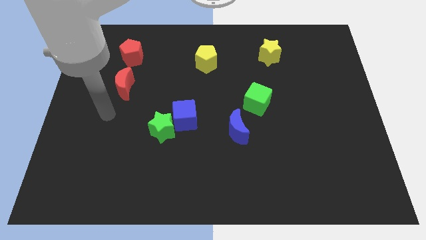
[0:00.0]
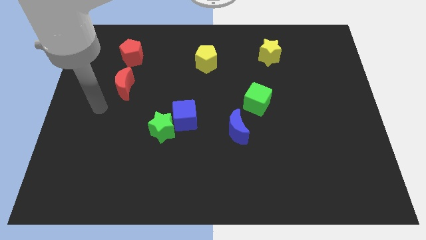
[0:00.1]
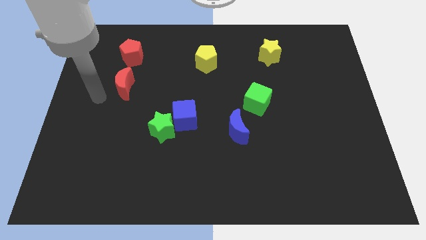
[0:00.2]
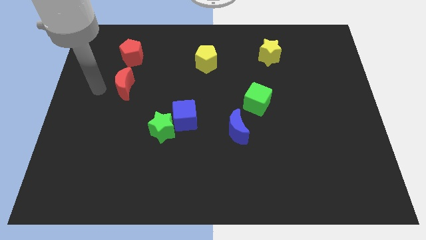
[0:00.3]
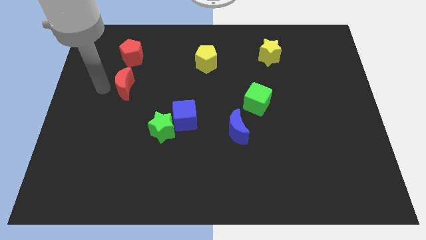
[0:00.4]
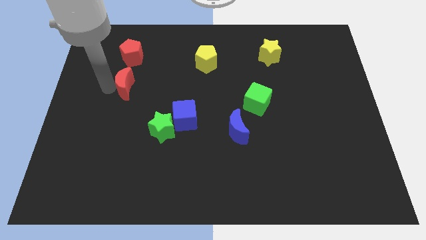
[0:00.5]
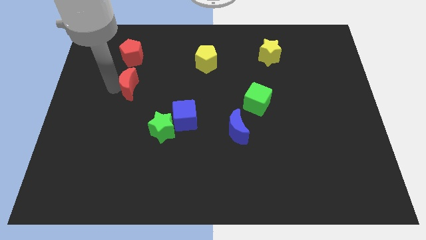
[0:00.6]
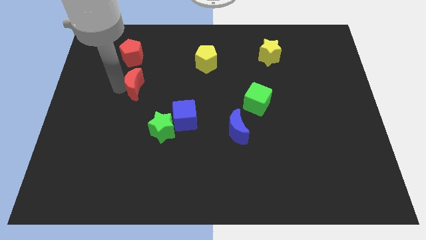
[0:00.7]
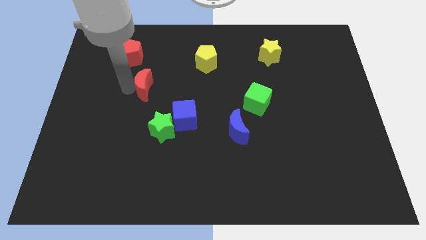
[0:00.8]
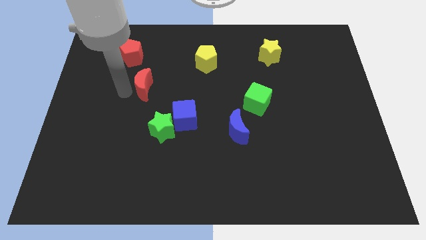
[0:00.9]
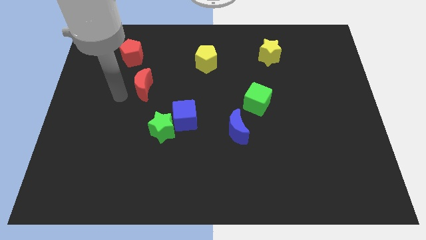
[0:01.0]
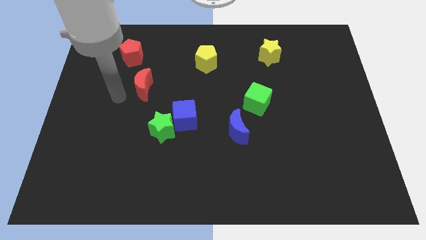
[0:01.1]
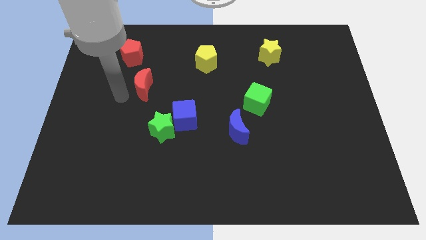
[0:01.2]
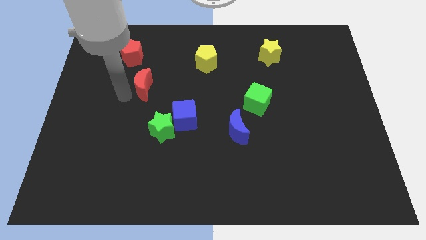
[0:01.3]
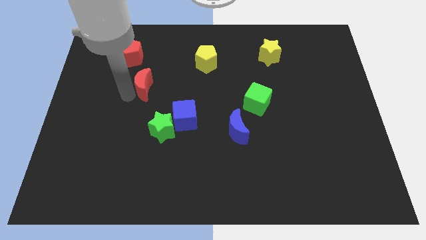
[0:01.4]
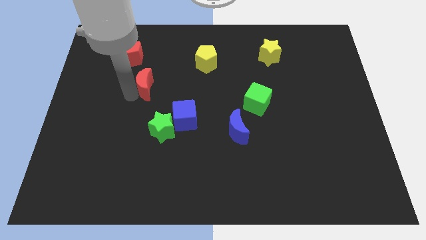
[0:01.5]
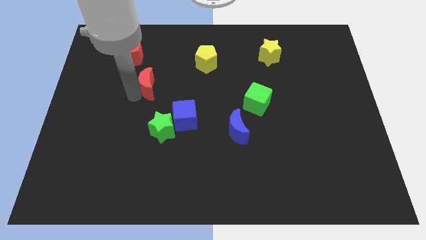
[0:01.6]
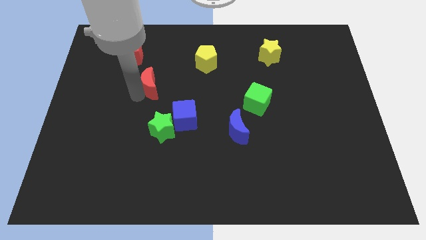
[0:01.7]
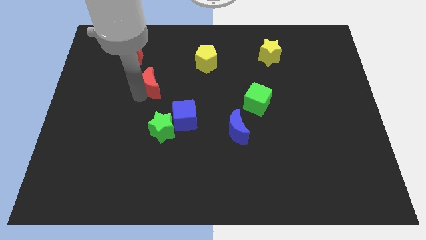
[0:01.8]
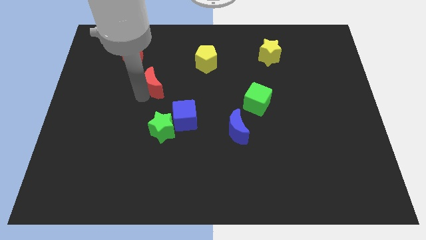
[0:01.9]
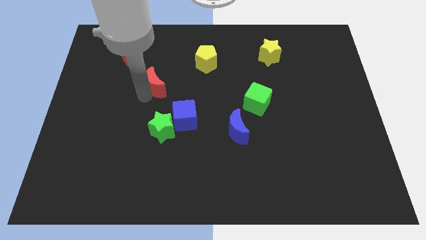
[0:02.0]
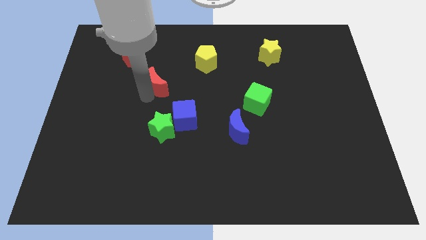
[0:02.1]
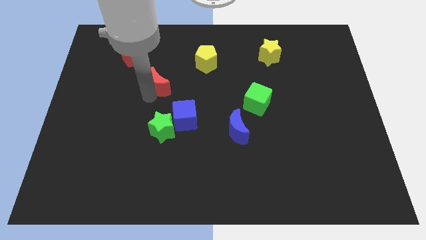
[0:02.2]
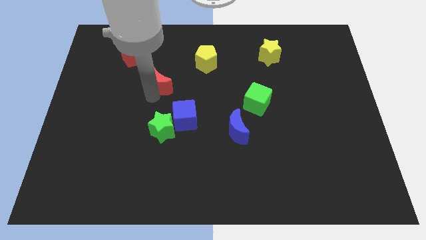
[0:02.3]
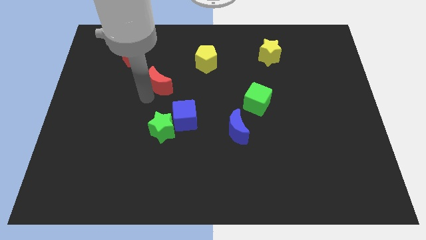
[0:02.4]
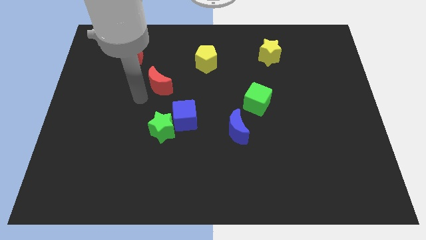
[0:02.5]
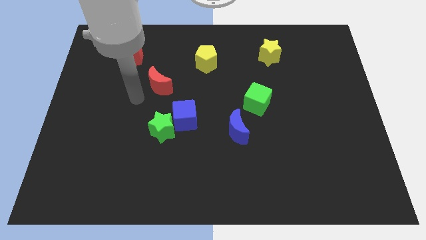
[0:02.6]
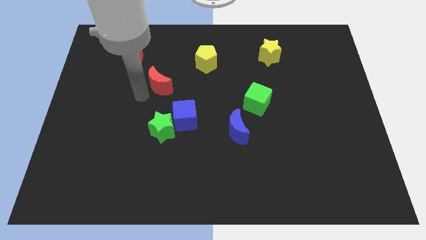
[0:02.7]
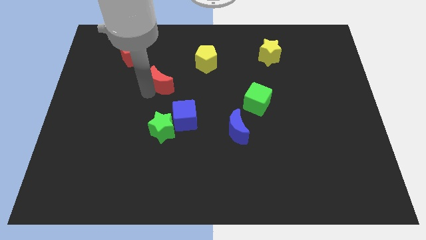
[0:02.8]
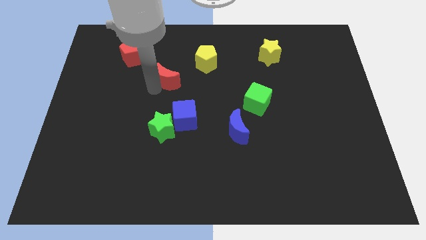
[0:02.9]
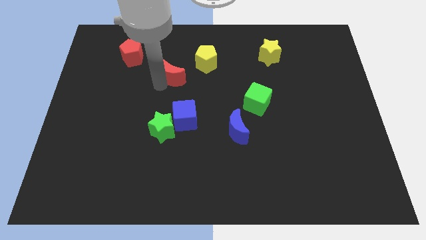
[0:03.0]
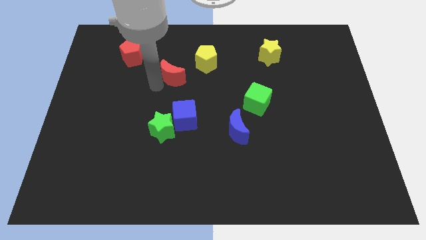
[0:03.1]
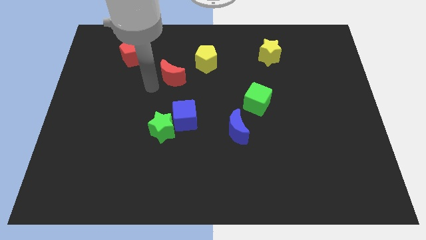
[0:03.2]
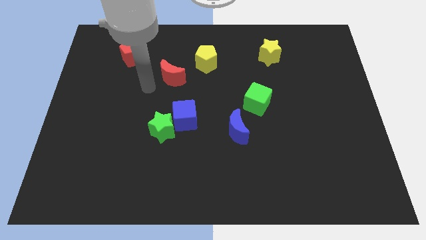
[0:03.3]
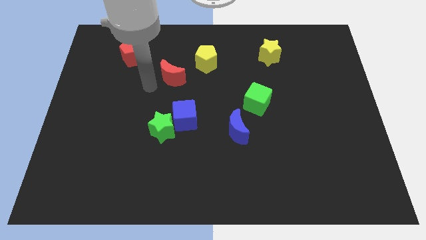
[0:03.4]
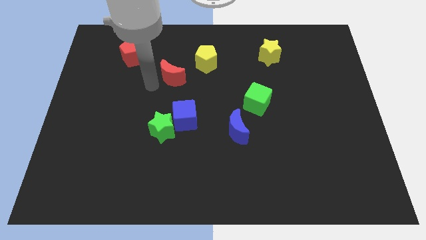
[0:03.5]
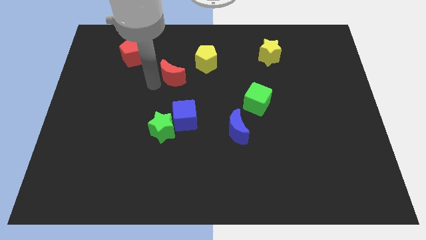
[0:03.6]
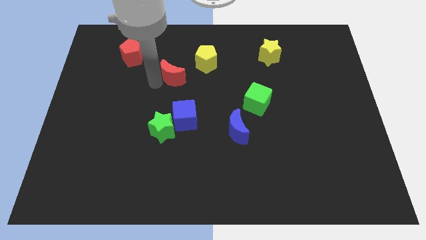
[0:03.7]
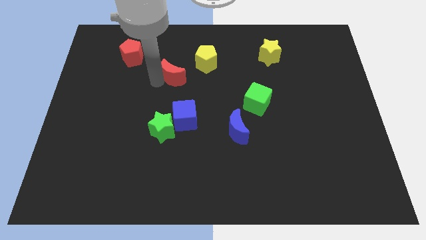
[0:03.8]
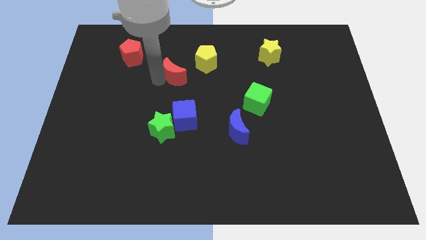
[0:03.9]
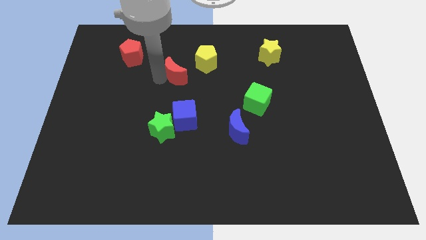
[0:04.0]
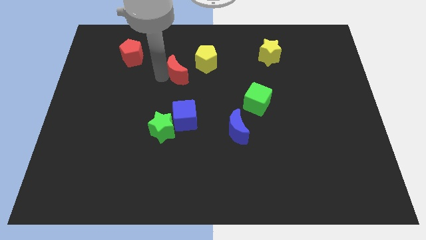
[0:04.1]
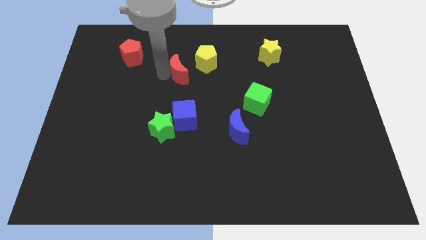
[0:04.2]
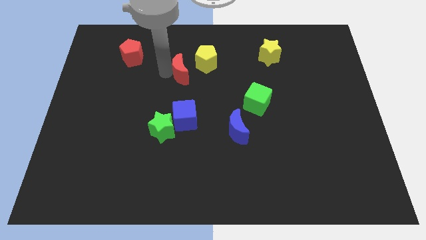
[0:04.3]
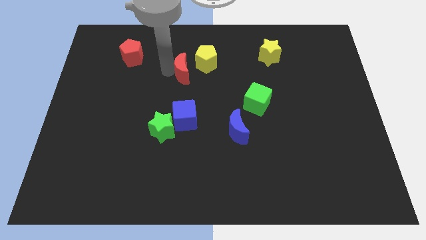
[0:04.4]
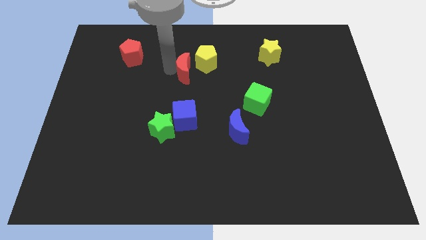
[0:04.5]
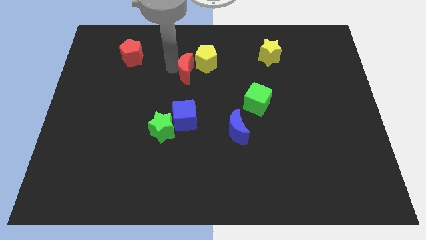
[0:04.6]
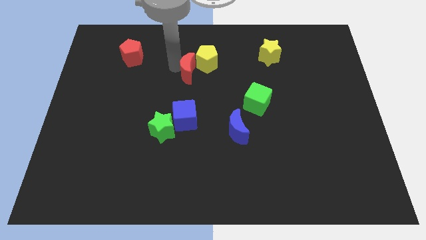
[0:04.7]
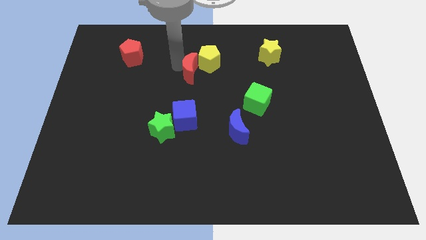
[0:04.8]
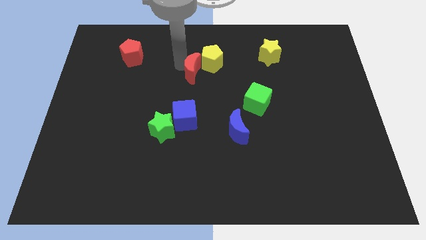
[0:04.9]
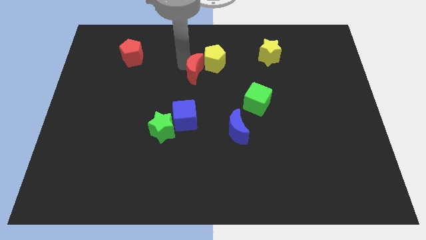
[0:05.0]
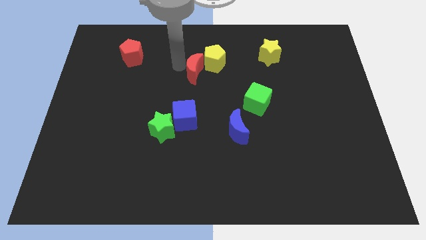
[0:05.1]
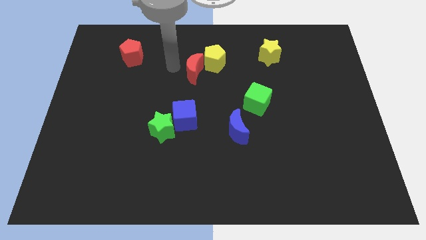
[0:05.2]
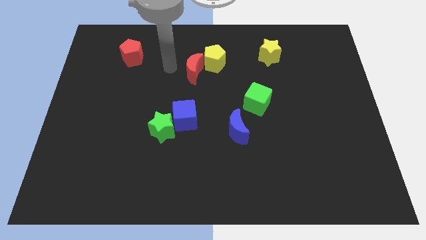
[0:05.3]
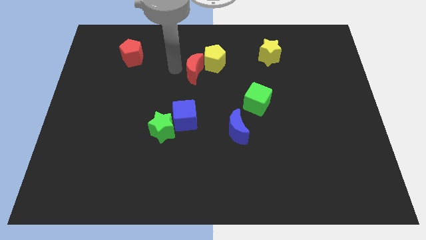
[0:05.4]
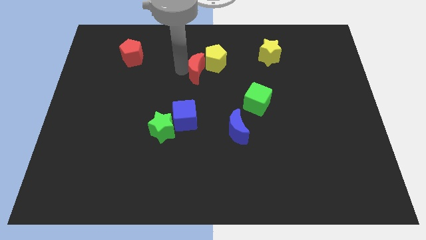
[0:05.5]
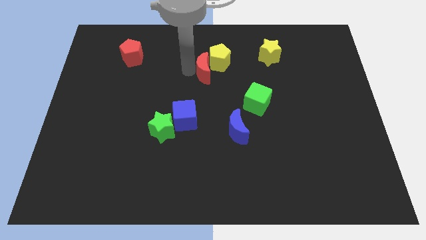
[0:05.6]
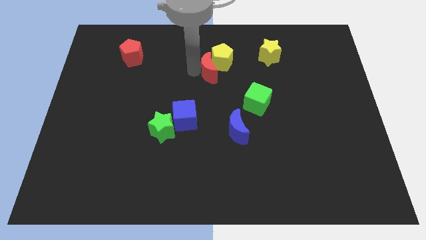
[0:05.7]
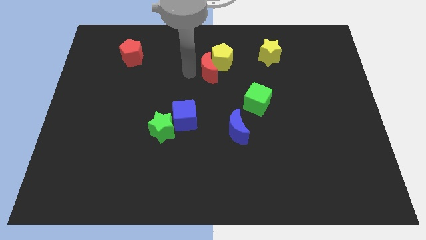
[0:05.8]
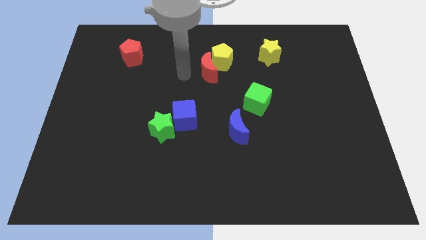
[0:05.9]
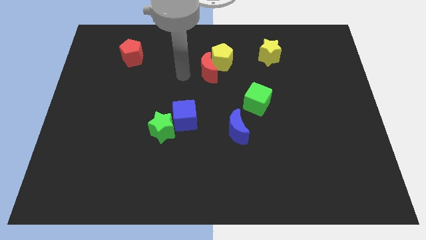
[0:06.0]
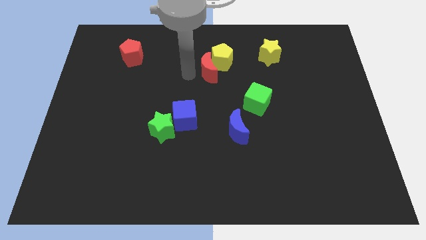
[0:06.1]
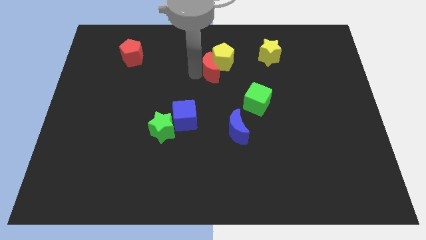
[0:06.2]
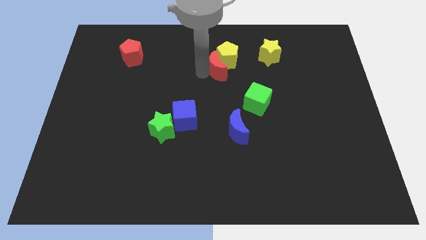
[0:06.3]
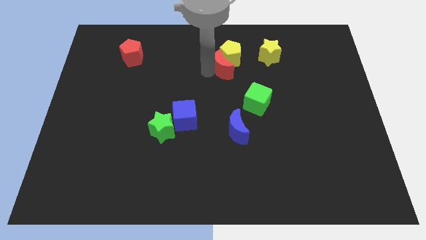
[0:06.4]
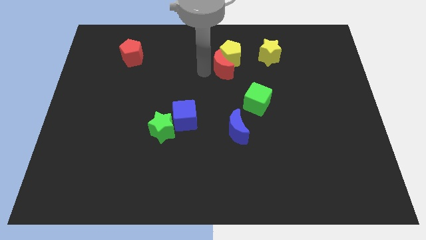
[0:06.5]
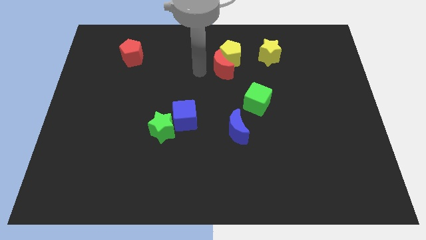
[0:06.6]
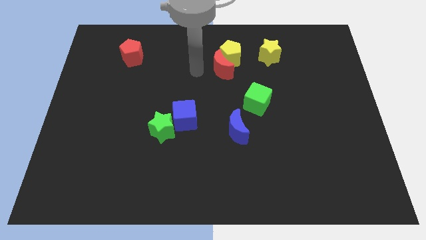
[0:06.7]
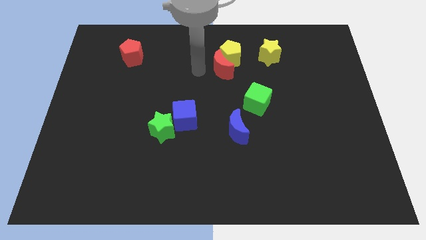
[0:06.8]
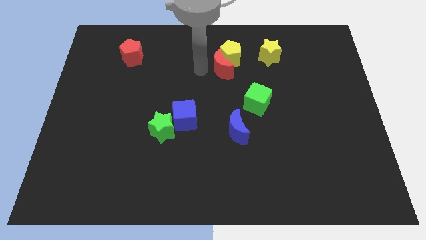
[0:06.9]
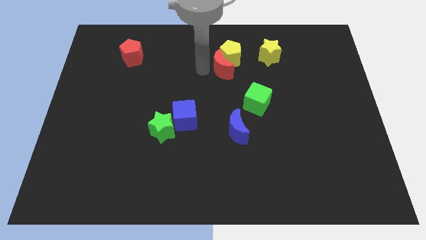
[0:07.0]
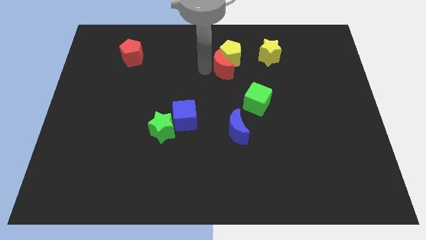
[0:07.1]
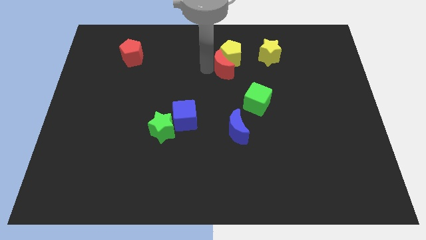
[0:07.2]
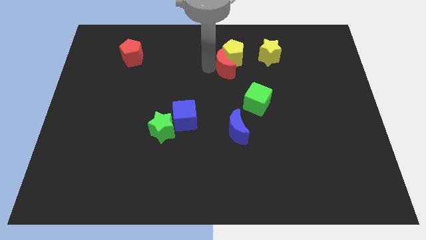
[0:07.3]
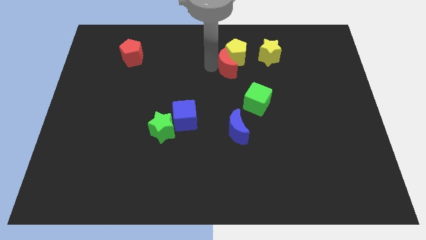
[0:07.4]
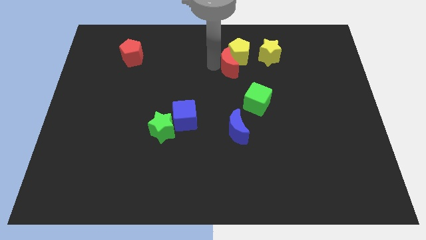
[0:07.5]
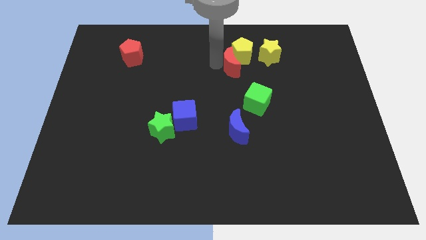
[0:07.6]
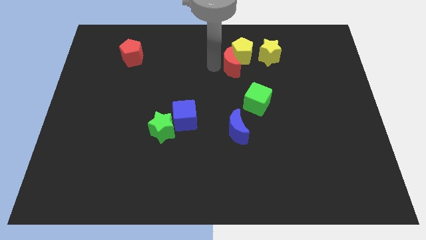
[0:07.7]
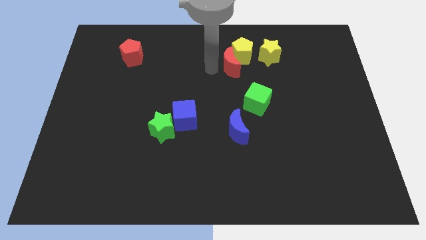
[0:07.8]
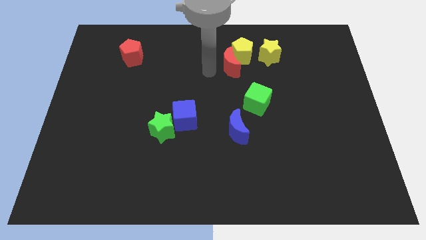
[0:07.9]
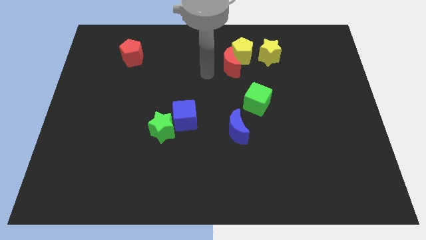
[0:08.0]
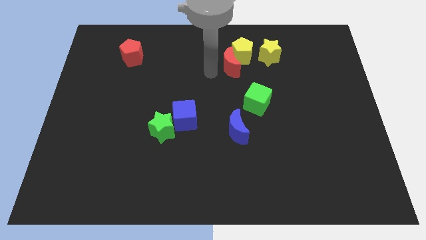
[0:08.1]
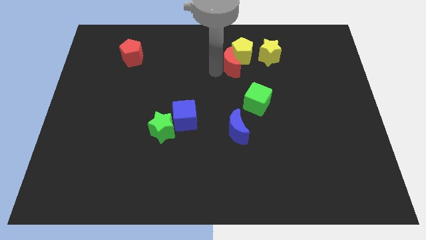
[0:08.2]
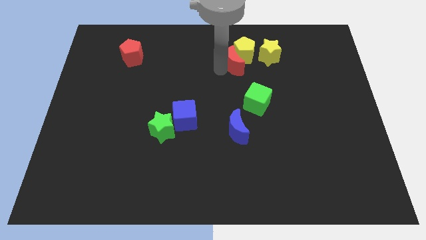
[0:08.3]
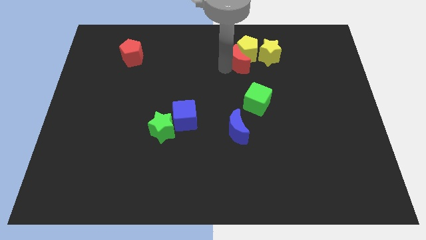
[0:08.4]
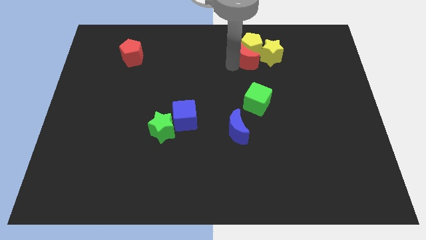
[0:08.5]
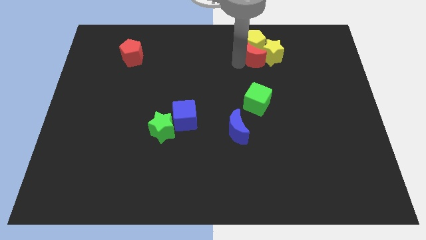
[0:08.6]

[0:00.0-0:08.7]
push the red moon towards the yellow star
